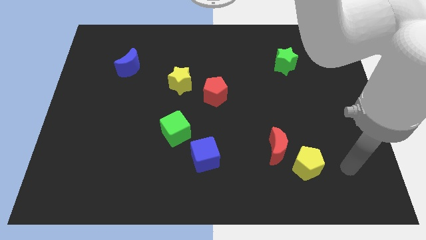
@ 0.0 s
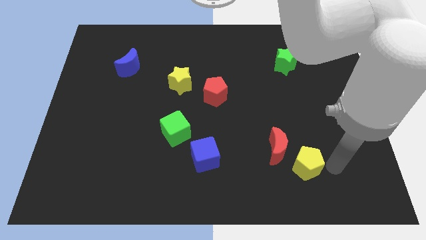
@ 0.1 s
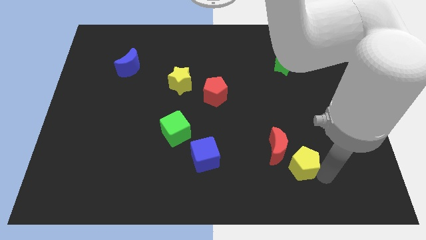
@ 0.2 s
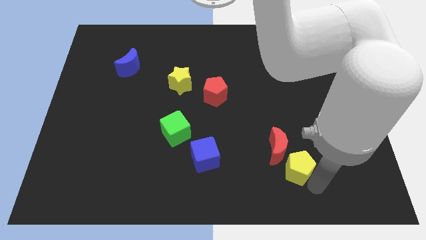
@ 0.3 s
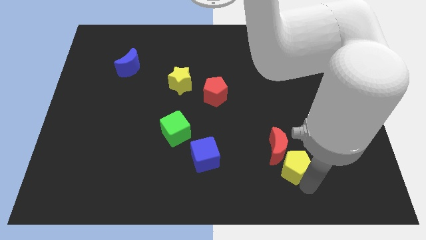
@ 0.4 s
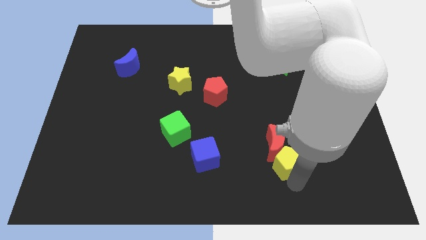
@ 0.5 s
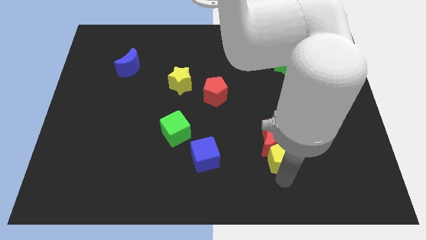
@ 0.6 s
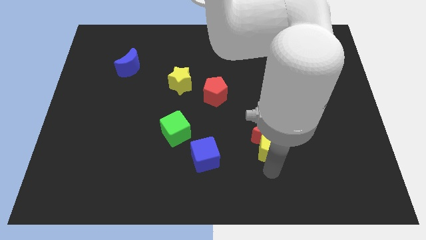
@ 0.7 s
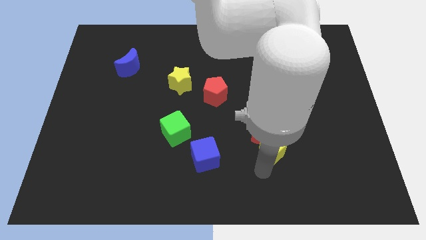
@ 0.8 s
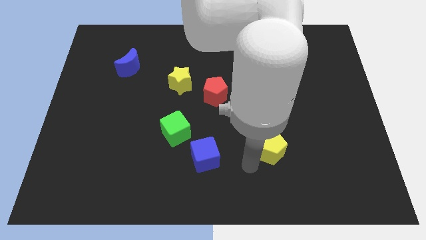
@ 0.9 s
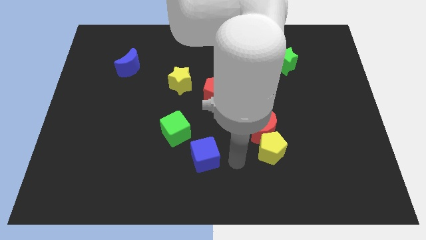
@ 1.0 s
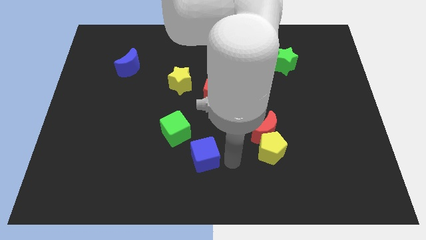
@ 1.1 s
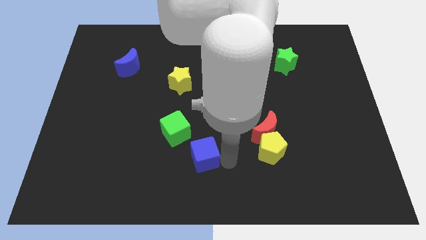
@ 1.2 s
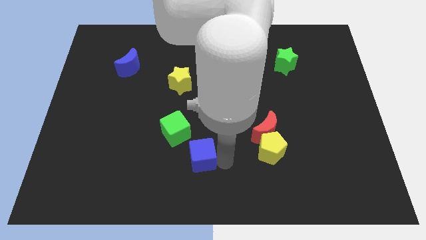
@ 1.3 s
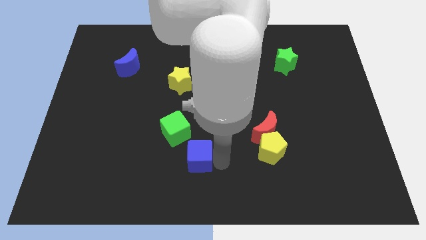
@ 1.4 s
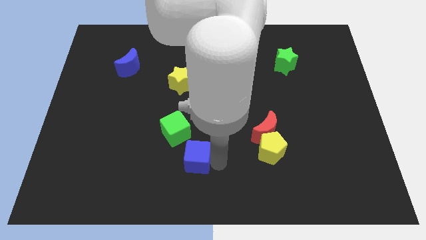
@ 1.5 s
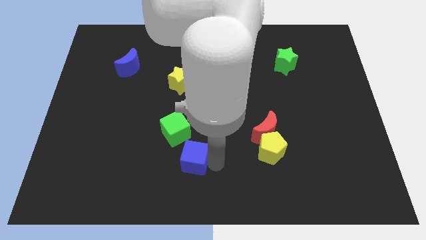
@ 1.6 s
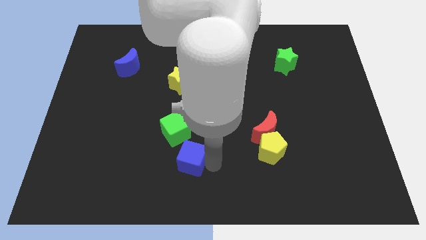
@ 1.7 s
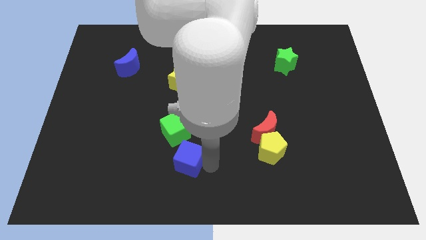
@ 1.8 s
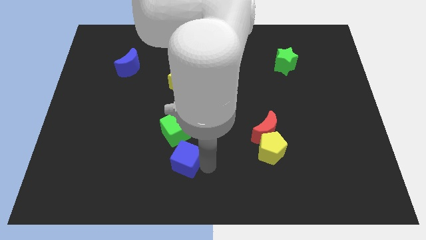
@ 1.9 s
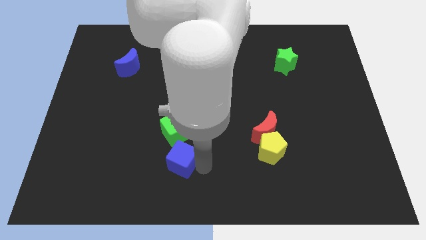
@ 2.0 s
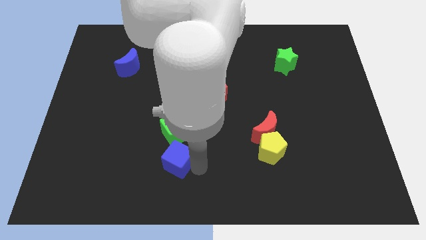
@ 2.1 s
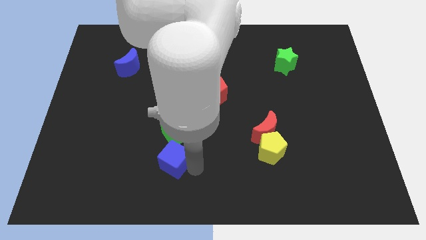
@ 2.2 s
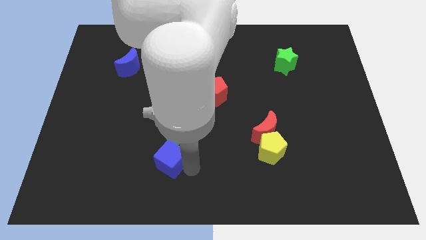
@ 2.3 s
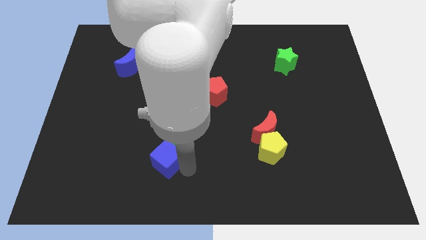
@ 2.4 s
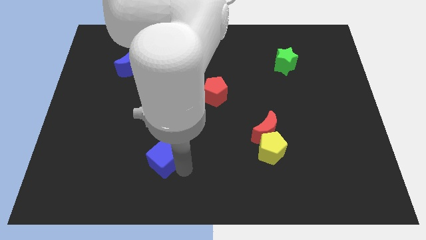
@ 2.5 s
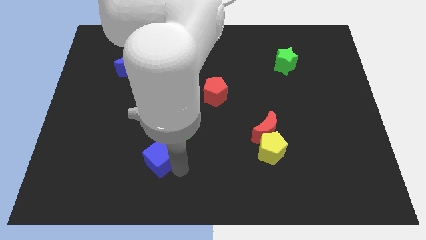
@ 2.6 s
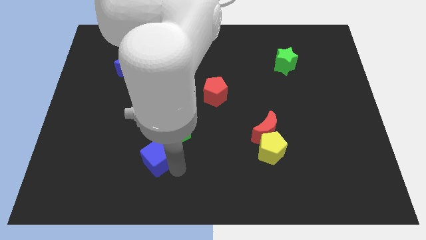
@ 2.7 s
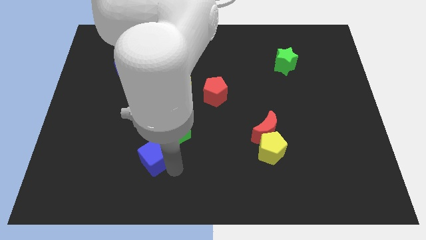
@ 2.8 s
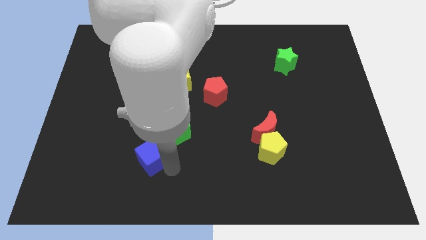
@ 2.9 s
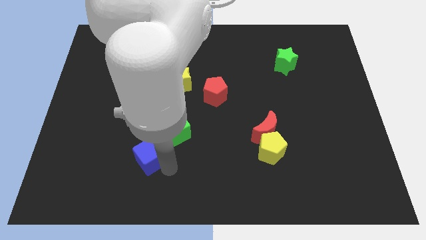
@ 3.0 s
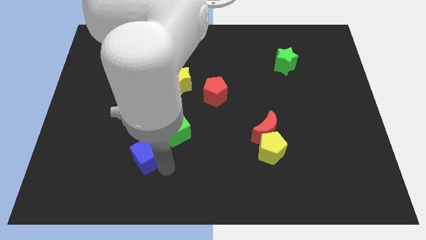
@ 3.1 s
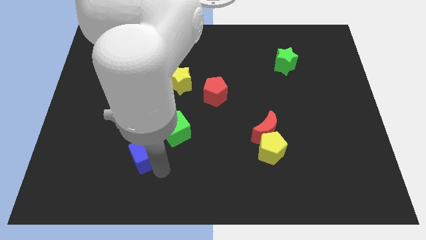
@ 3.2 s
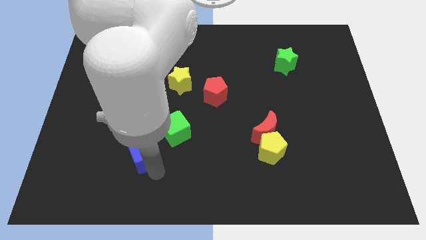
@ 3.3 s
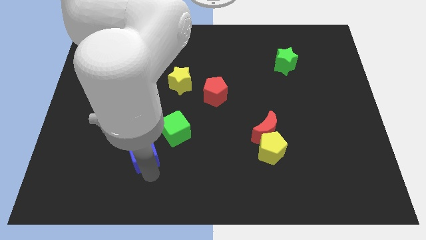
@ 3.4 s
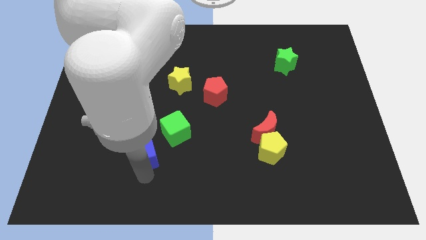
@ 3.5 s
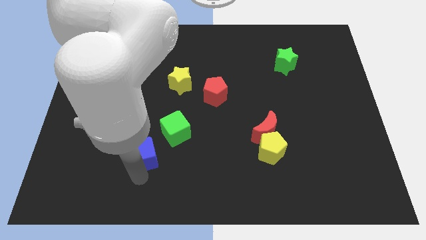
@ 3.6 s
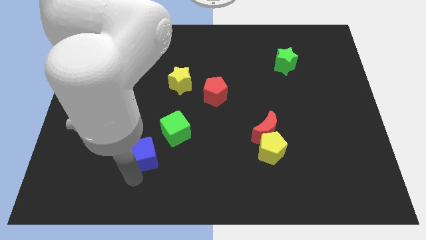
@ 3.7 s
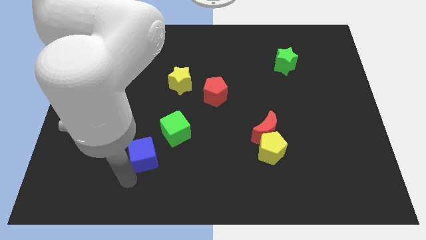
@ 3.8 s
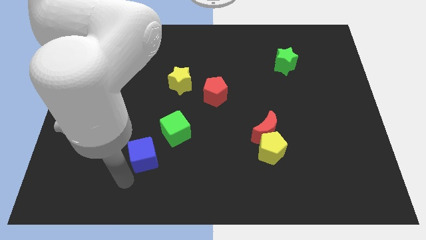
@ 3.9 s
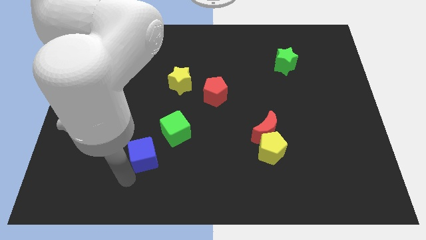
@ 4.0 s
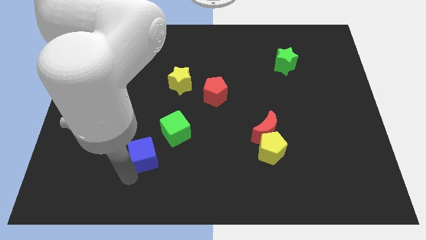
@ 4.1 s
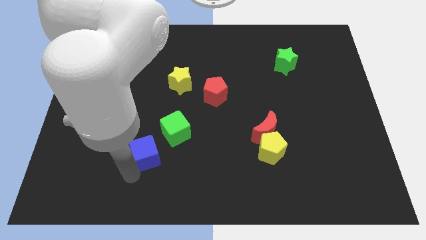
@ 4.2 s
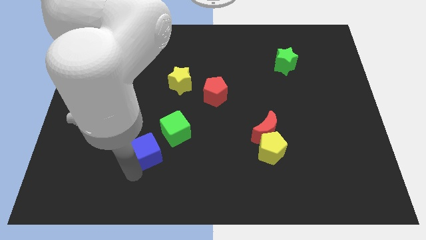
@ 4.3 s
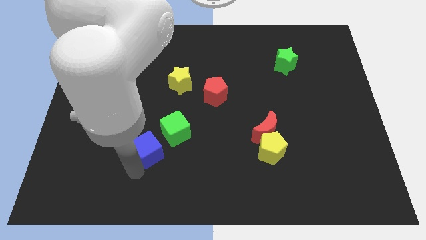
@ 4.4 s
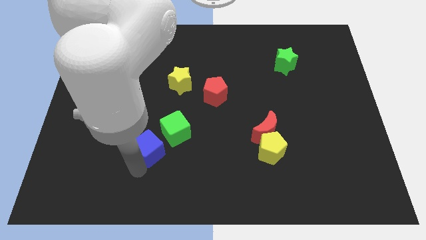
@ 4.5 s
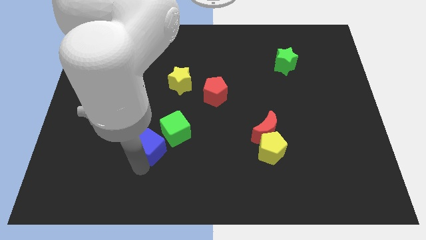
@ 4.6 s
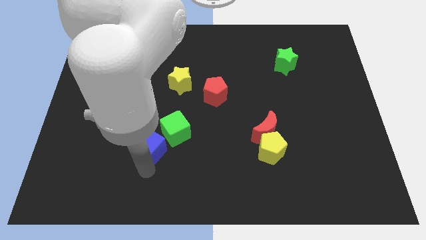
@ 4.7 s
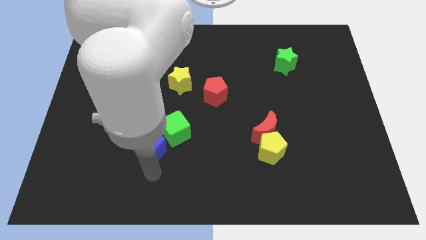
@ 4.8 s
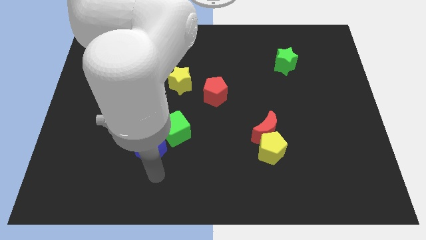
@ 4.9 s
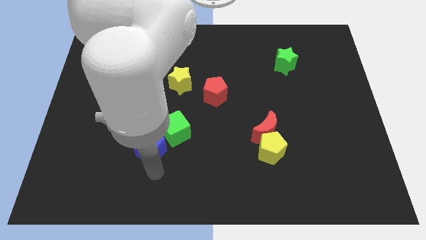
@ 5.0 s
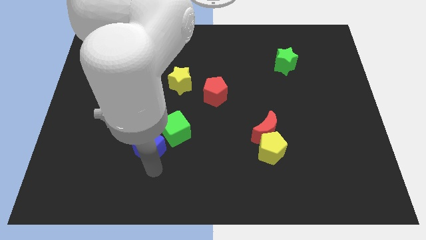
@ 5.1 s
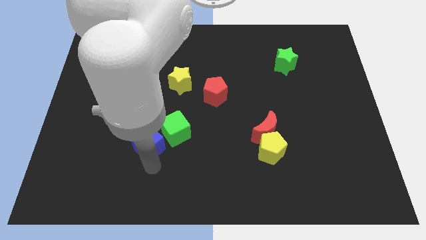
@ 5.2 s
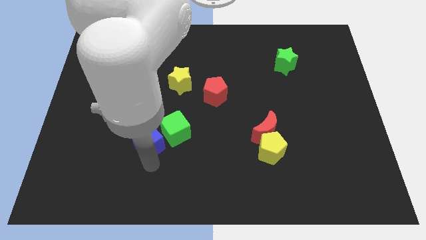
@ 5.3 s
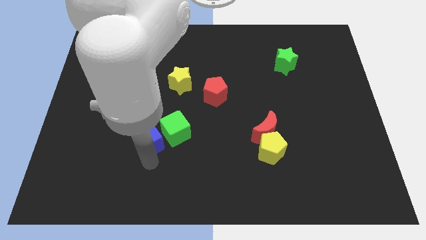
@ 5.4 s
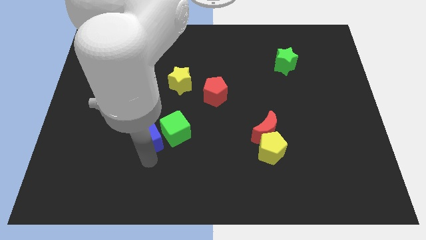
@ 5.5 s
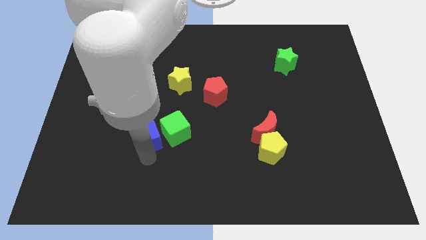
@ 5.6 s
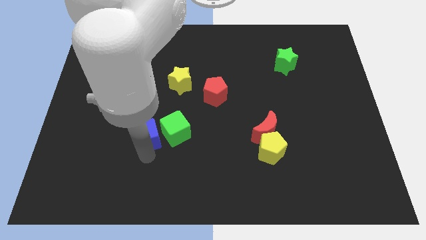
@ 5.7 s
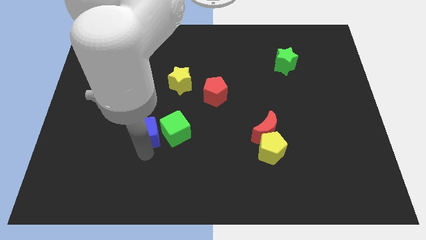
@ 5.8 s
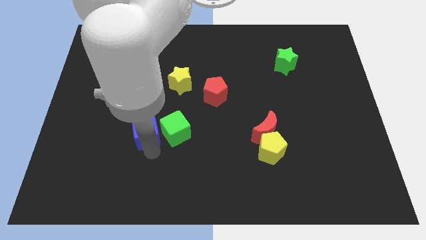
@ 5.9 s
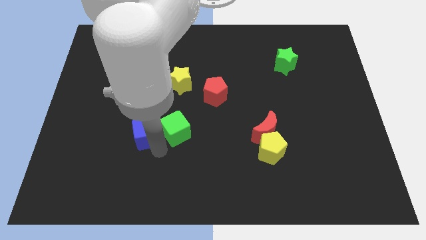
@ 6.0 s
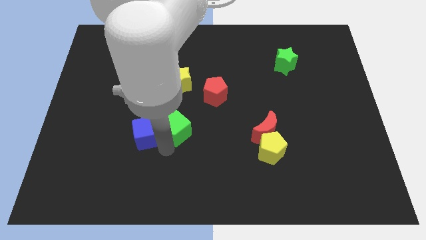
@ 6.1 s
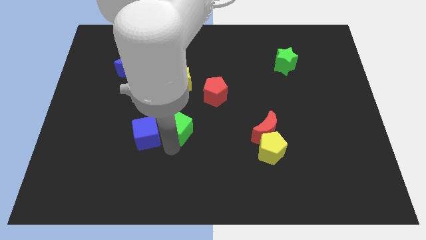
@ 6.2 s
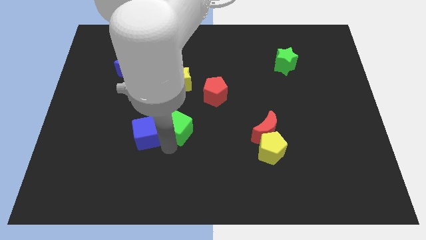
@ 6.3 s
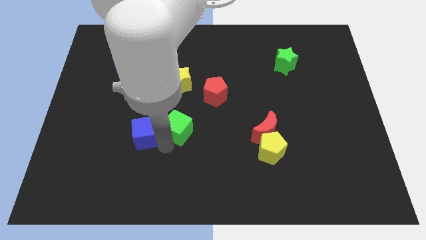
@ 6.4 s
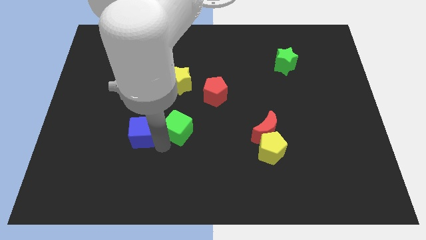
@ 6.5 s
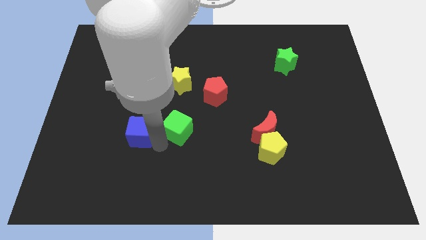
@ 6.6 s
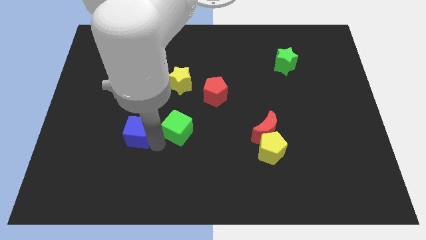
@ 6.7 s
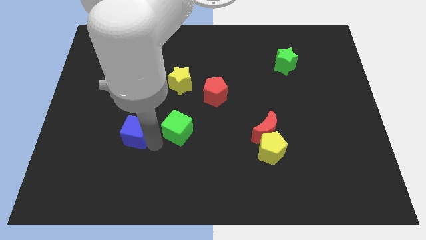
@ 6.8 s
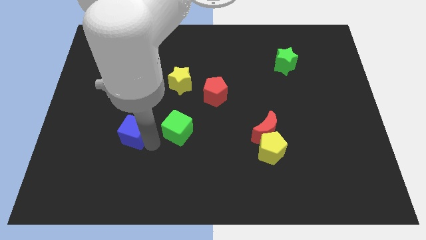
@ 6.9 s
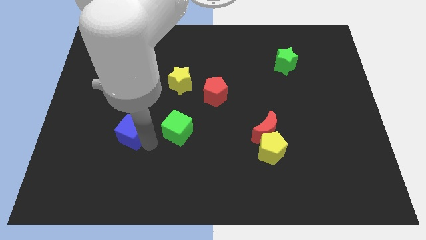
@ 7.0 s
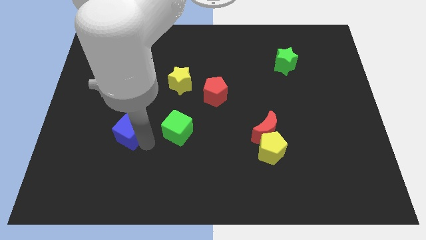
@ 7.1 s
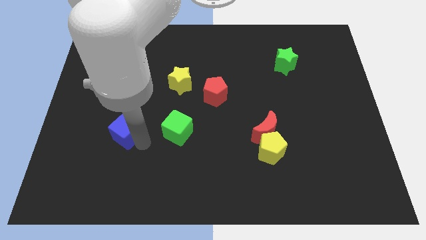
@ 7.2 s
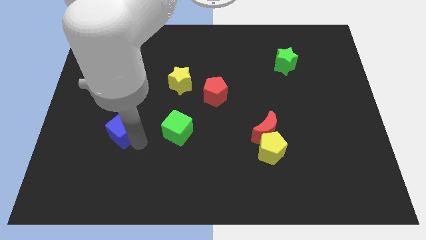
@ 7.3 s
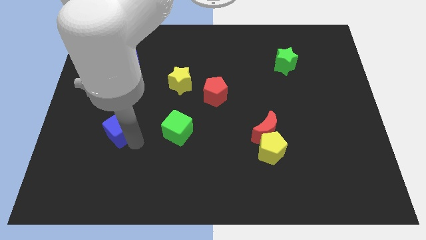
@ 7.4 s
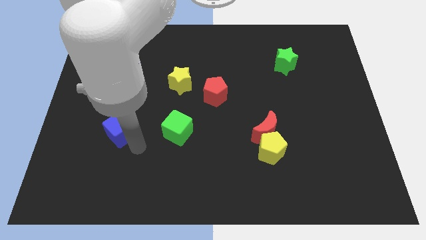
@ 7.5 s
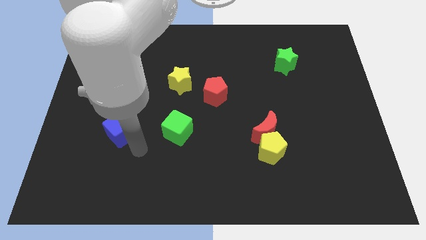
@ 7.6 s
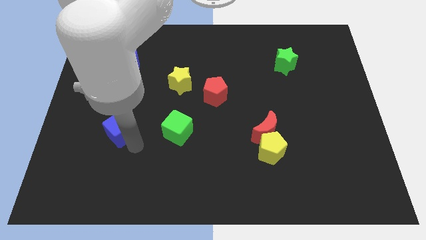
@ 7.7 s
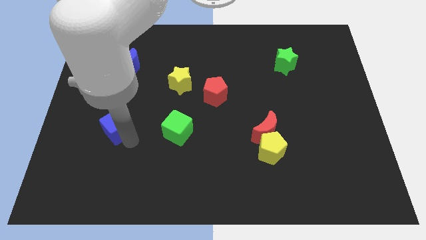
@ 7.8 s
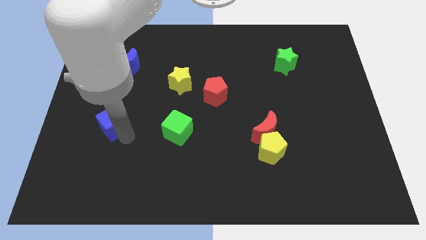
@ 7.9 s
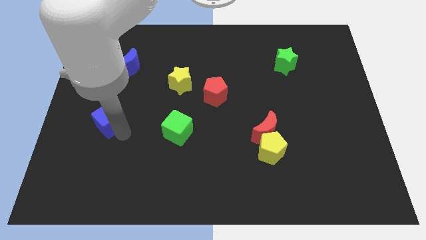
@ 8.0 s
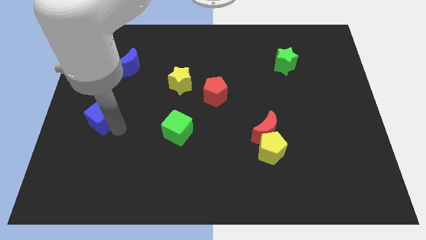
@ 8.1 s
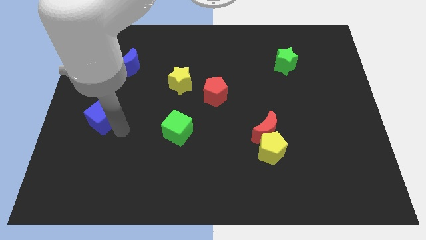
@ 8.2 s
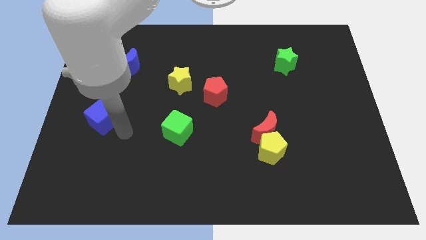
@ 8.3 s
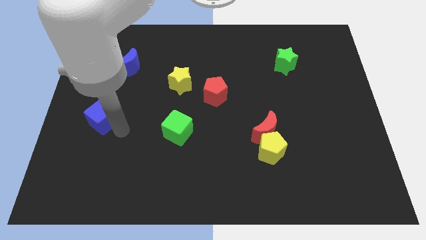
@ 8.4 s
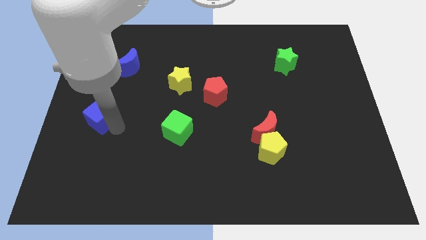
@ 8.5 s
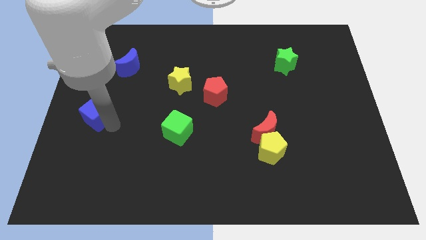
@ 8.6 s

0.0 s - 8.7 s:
slide the blue cube to the left side

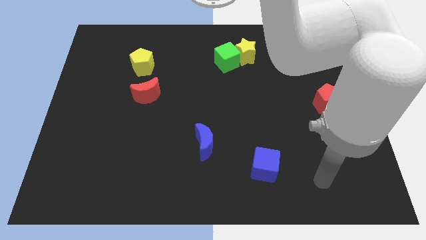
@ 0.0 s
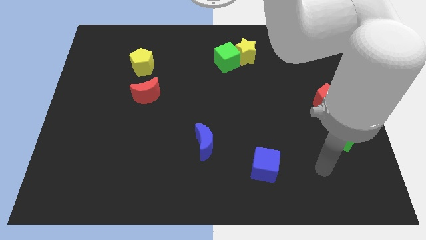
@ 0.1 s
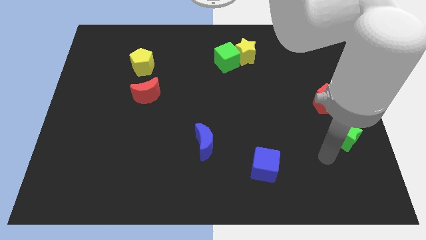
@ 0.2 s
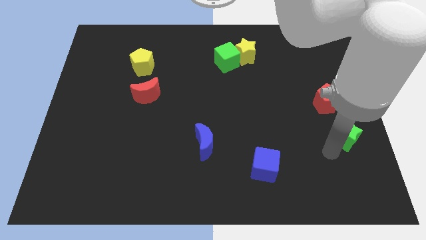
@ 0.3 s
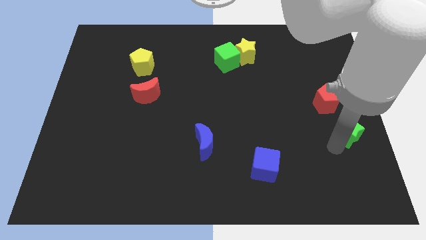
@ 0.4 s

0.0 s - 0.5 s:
slide the green star to the center right
